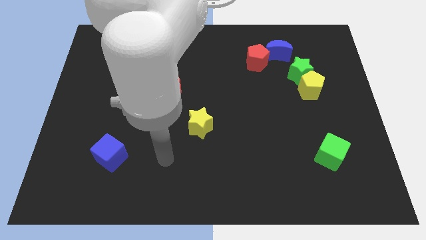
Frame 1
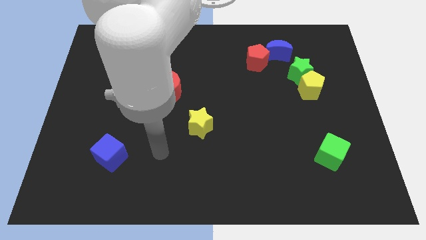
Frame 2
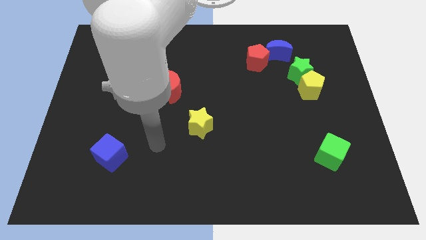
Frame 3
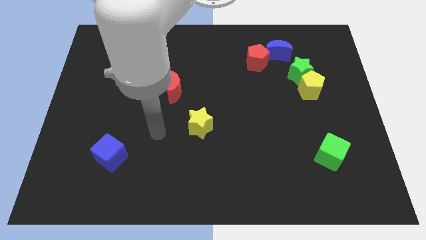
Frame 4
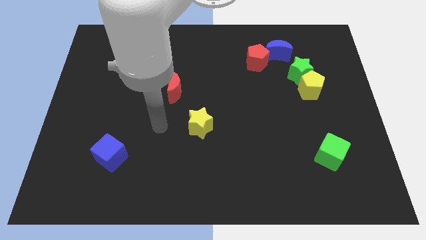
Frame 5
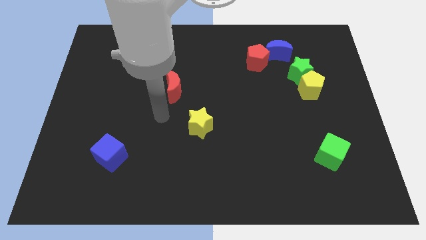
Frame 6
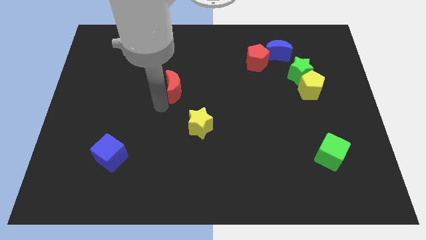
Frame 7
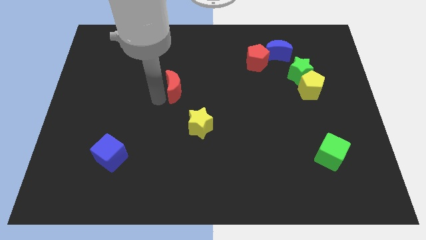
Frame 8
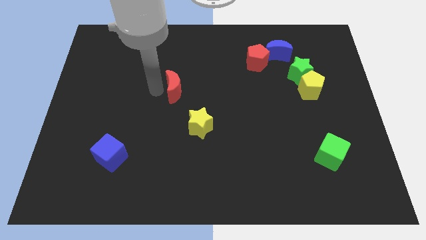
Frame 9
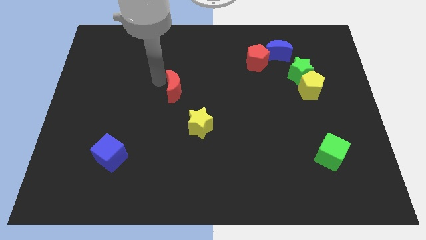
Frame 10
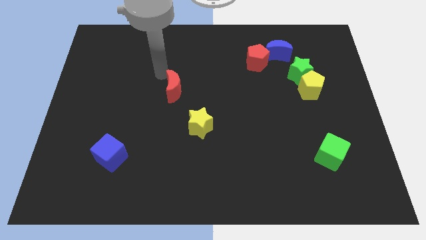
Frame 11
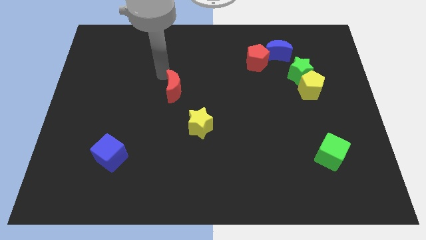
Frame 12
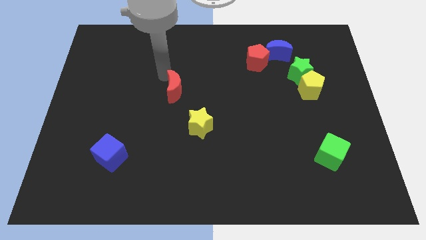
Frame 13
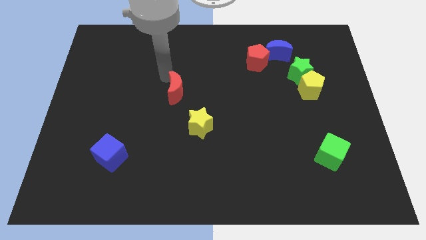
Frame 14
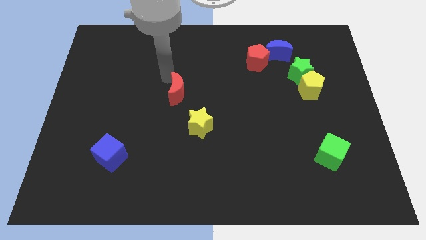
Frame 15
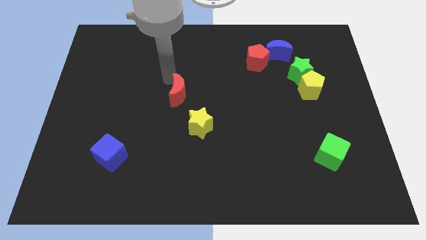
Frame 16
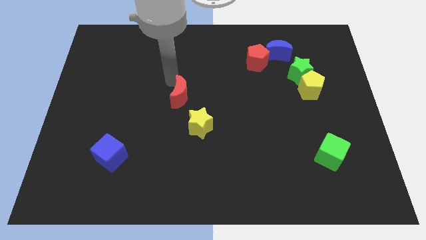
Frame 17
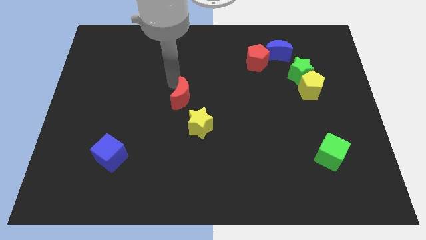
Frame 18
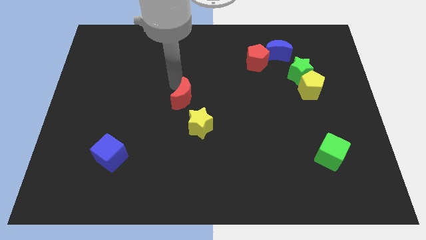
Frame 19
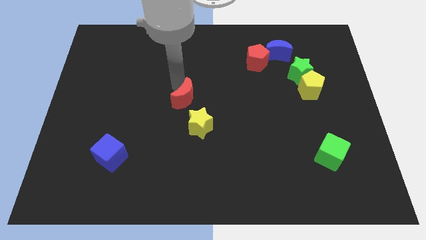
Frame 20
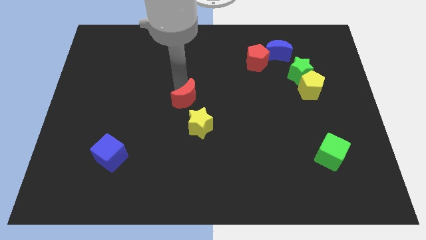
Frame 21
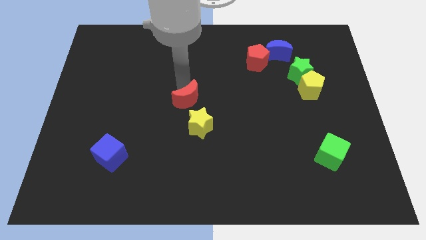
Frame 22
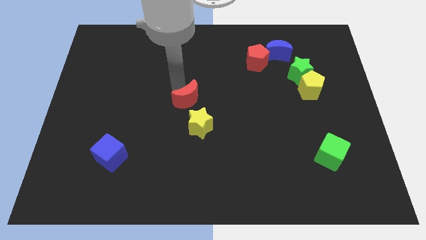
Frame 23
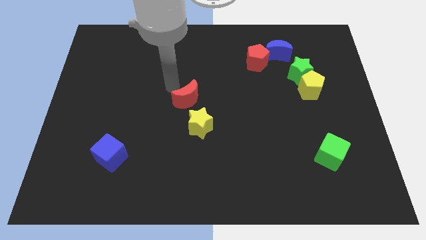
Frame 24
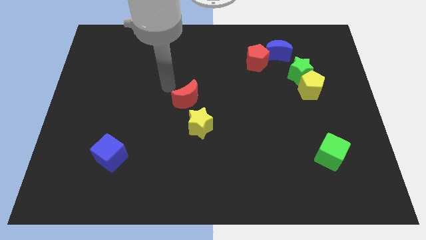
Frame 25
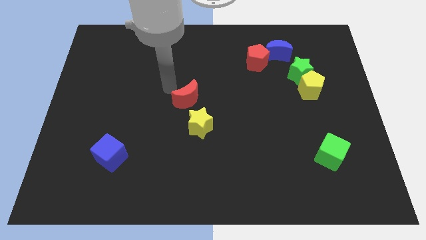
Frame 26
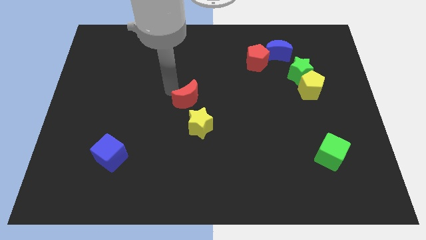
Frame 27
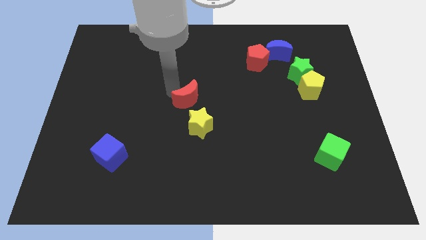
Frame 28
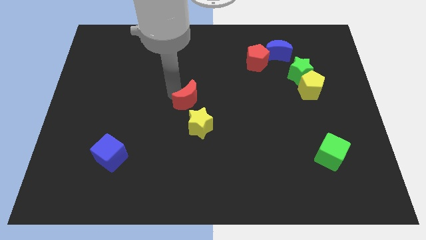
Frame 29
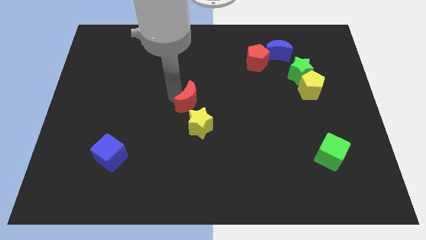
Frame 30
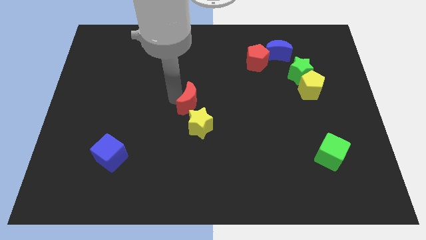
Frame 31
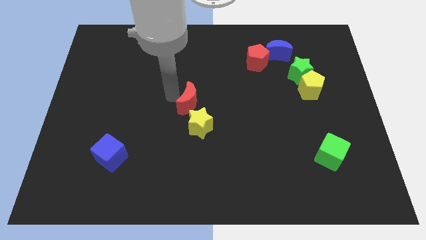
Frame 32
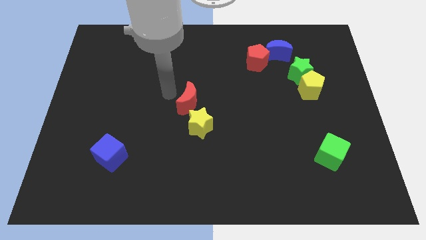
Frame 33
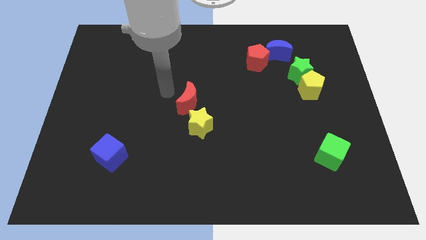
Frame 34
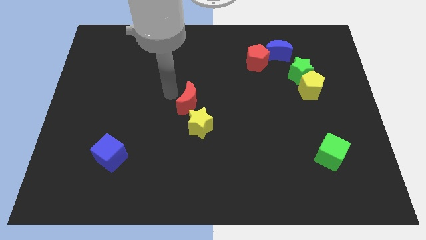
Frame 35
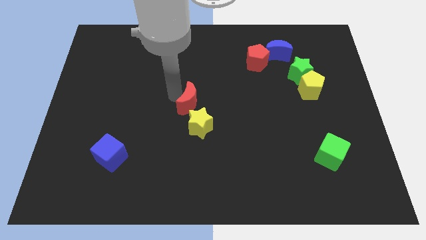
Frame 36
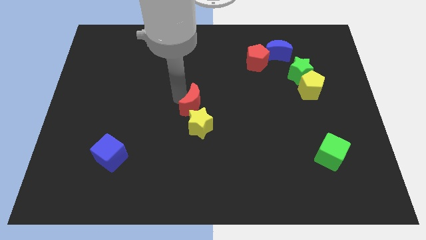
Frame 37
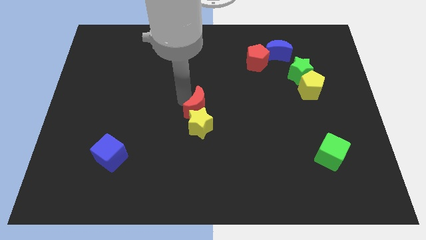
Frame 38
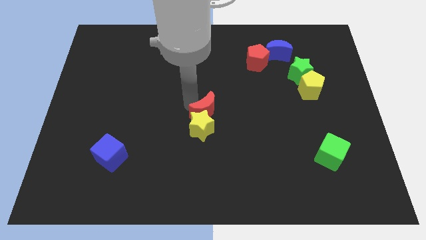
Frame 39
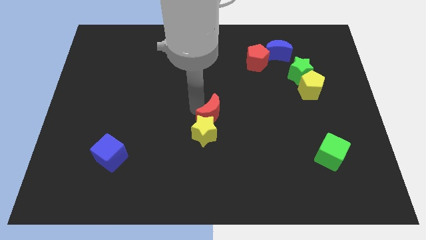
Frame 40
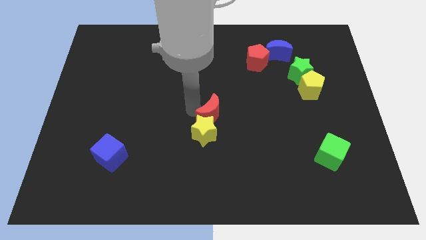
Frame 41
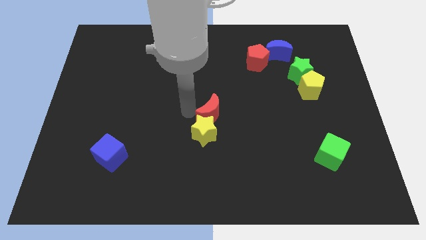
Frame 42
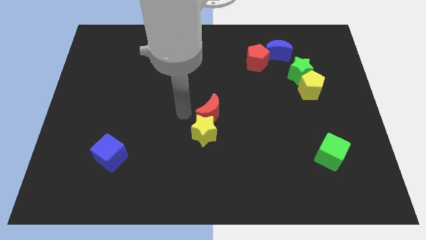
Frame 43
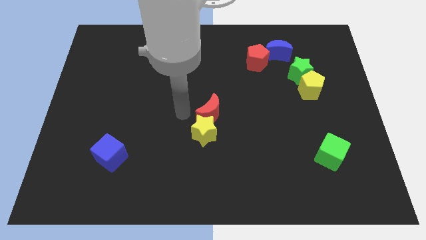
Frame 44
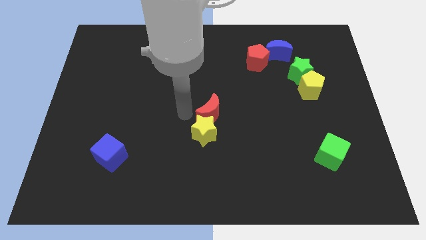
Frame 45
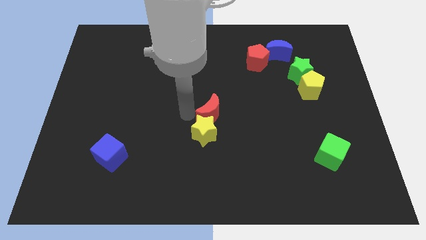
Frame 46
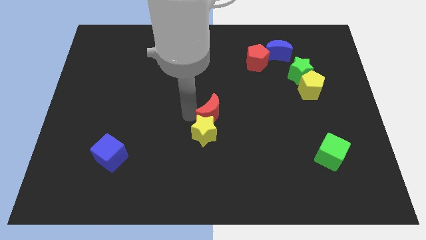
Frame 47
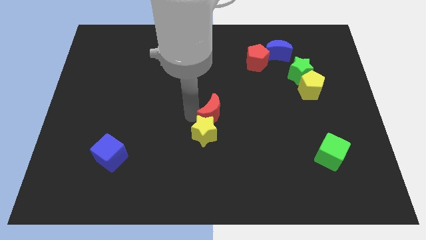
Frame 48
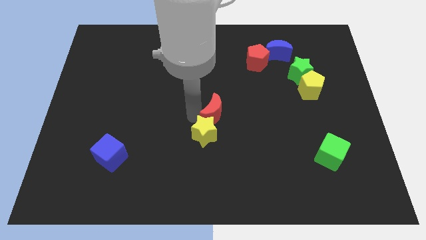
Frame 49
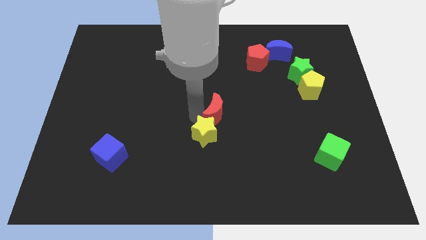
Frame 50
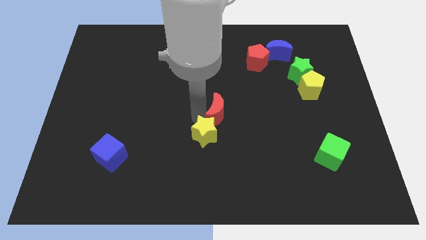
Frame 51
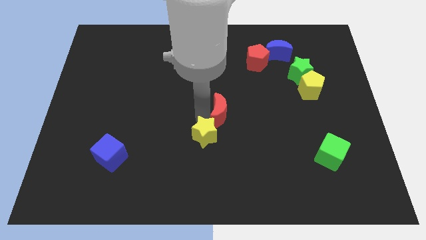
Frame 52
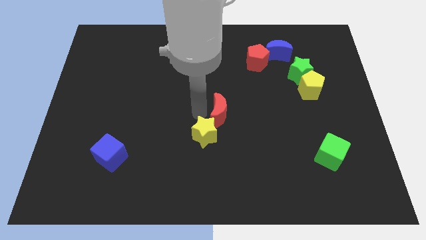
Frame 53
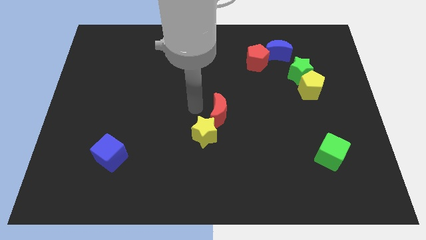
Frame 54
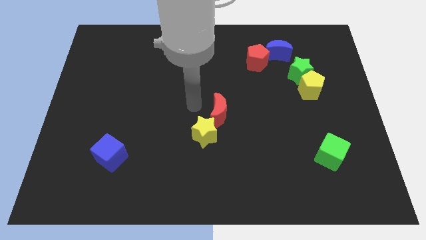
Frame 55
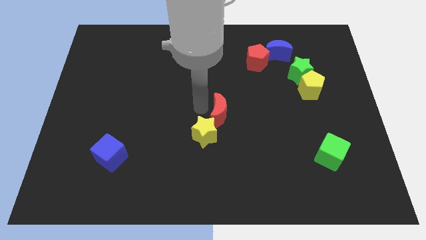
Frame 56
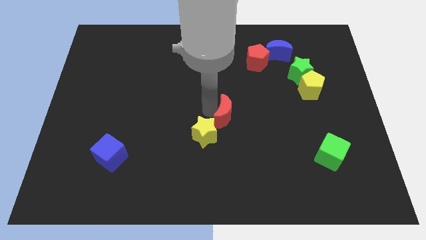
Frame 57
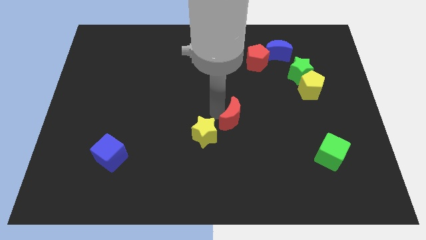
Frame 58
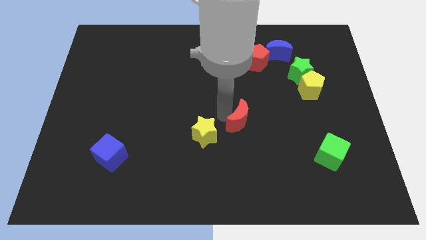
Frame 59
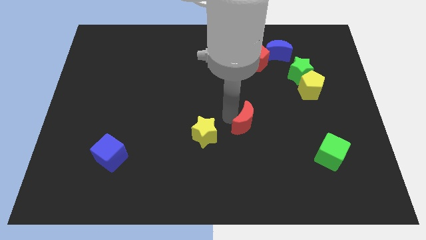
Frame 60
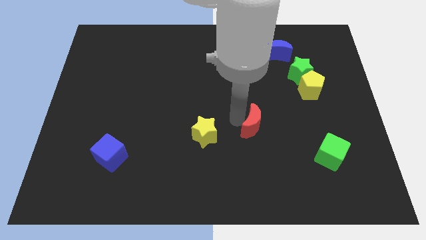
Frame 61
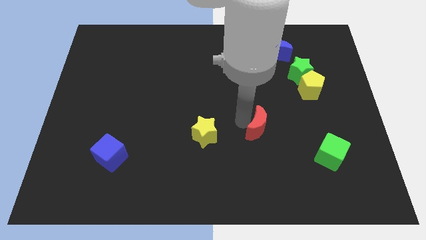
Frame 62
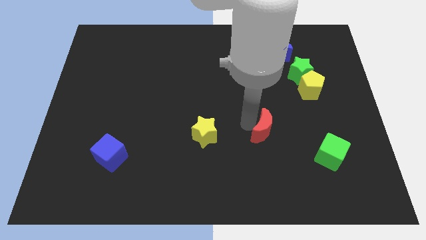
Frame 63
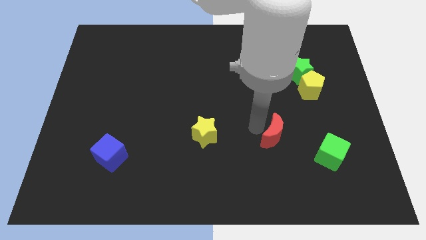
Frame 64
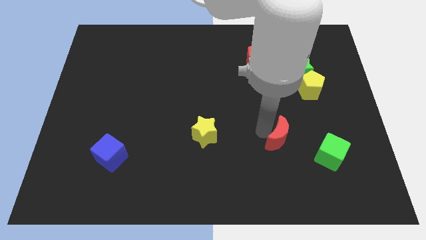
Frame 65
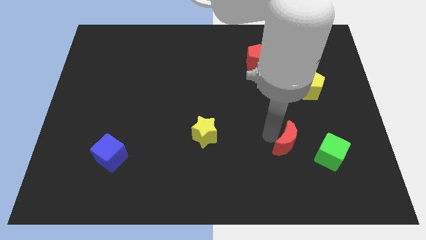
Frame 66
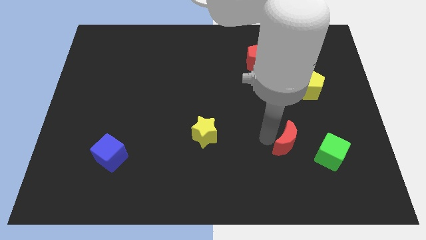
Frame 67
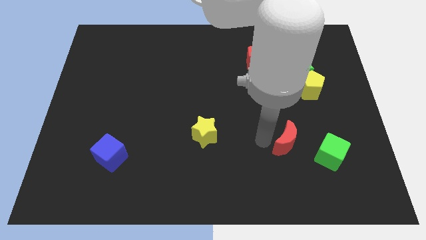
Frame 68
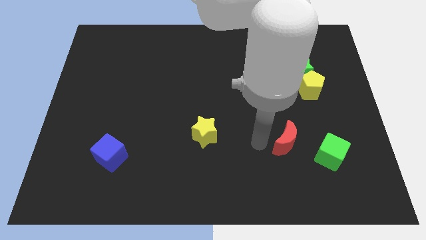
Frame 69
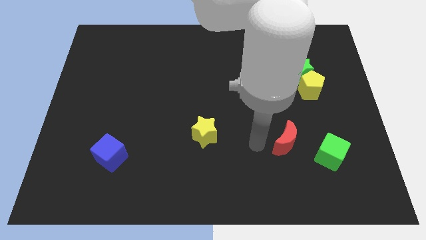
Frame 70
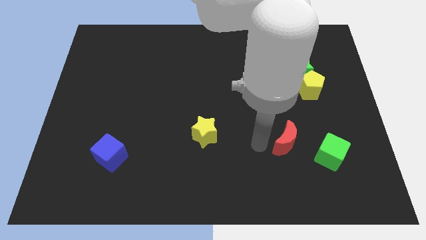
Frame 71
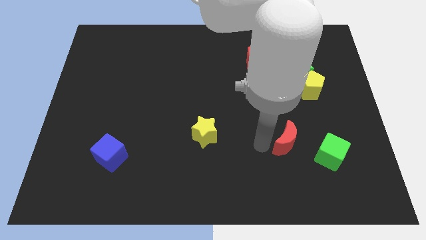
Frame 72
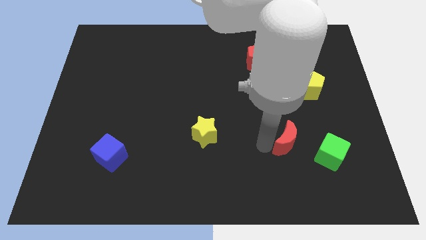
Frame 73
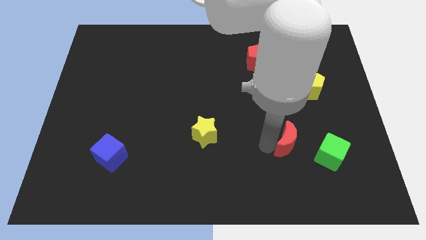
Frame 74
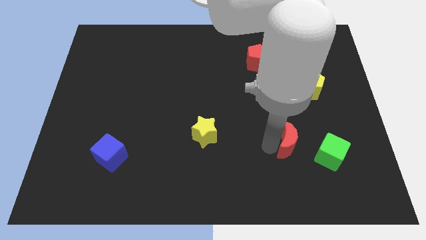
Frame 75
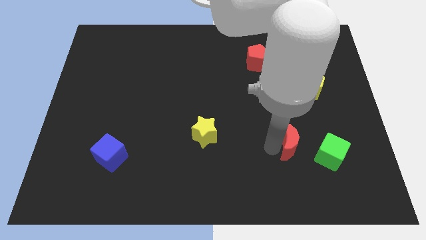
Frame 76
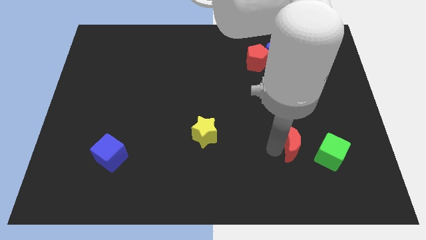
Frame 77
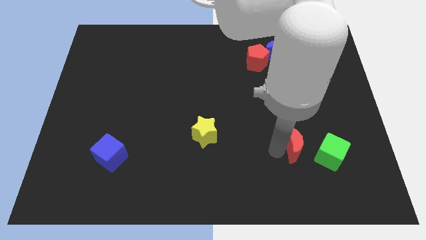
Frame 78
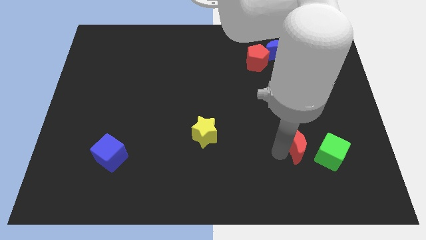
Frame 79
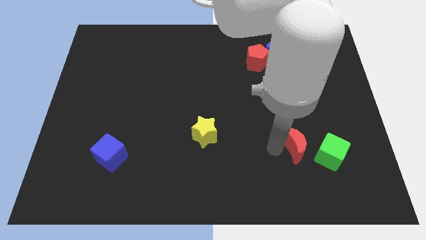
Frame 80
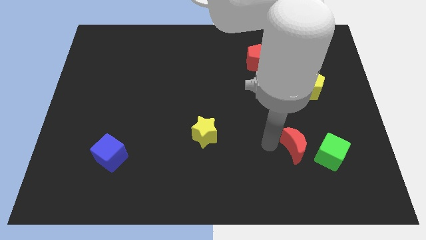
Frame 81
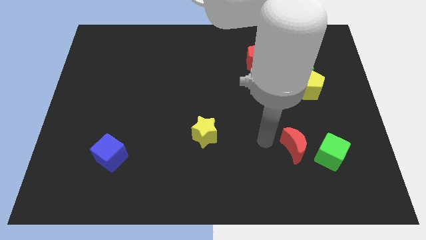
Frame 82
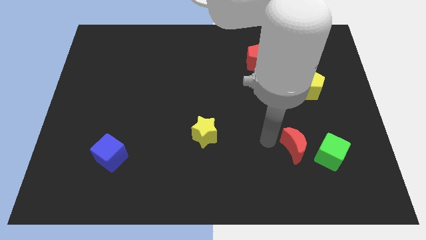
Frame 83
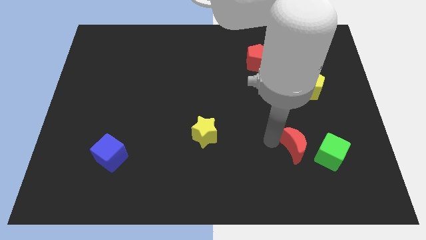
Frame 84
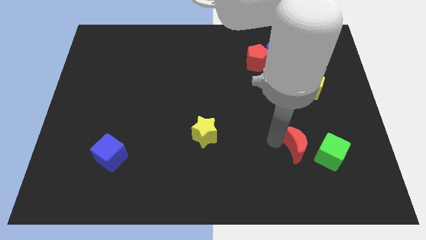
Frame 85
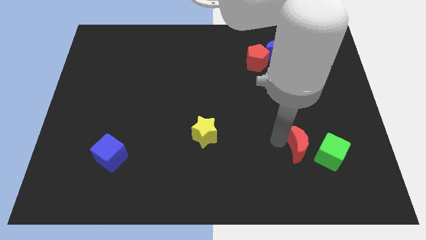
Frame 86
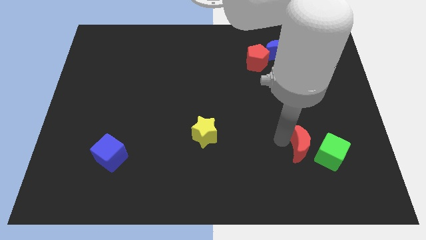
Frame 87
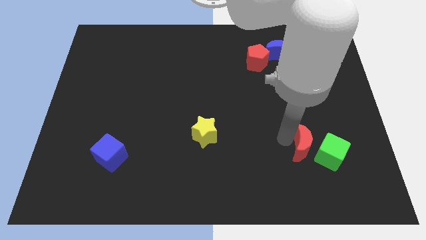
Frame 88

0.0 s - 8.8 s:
push the red moon next to the green cube
